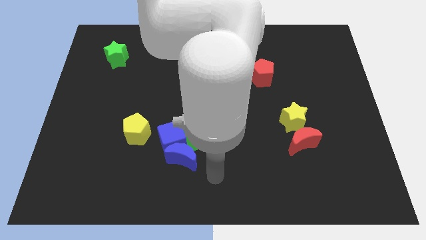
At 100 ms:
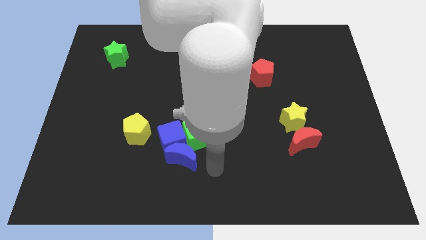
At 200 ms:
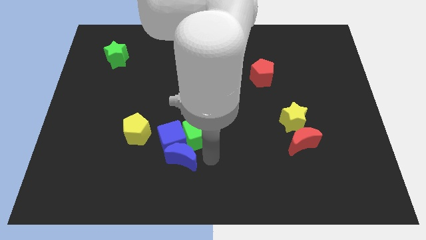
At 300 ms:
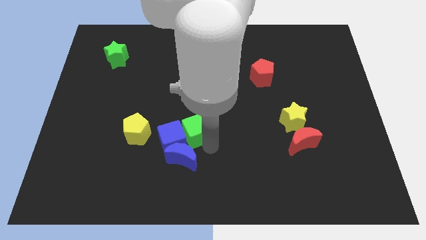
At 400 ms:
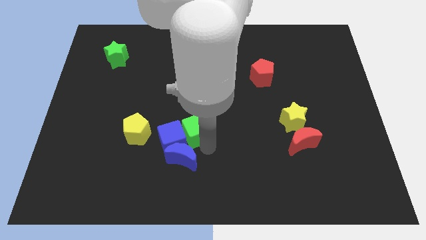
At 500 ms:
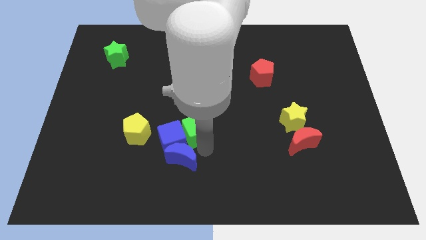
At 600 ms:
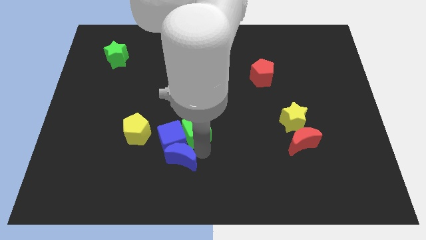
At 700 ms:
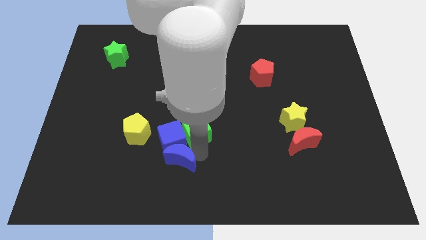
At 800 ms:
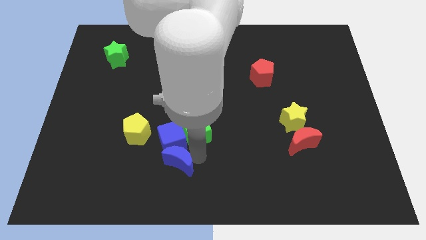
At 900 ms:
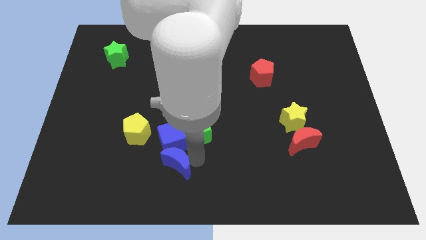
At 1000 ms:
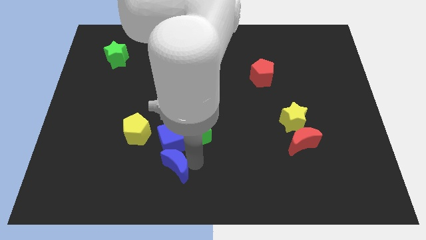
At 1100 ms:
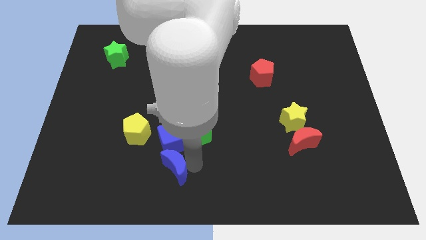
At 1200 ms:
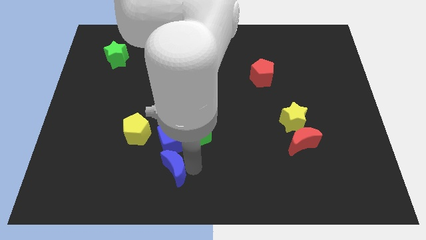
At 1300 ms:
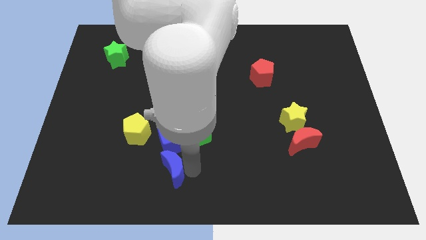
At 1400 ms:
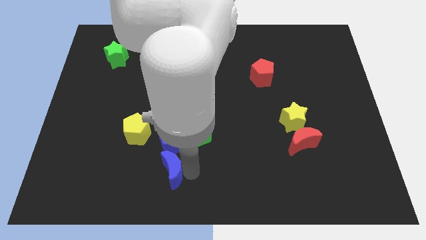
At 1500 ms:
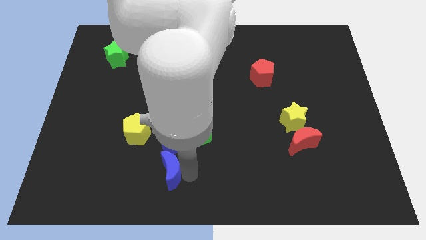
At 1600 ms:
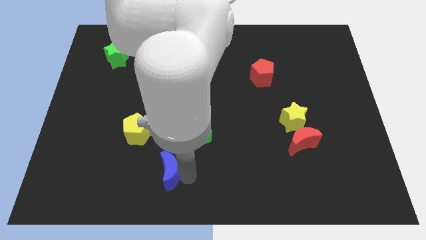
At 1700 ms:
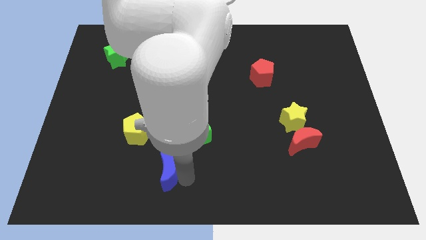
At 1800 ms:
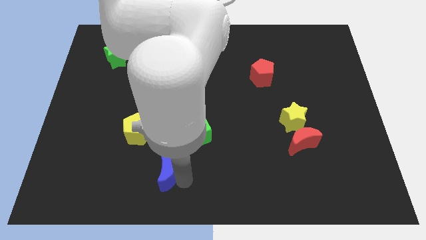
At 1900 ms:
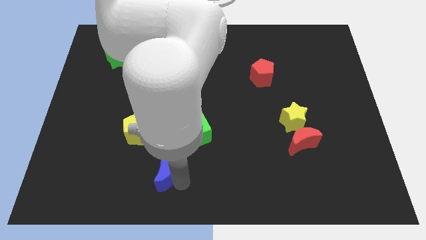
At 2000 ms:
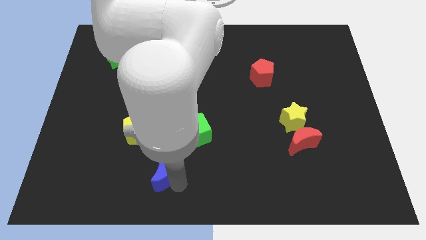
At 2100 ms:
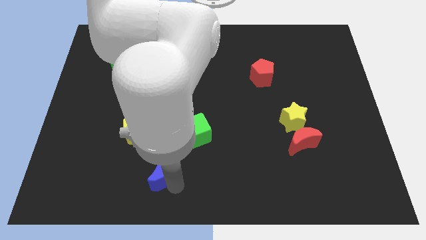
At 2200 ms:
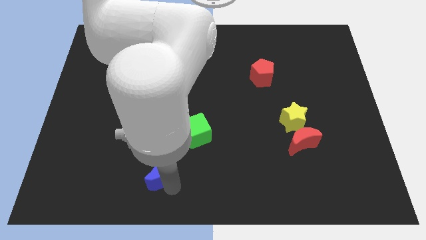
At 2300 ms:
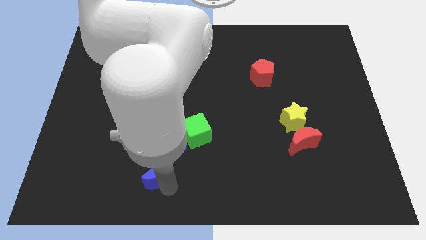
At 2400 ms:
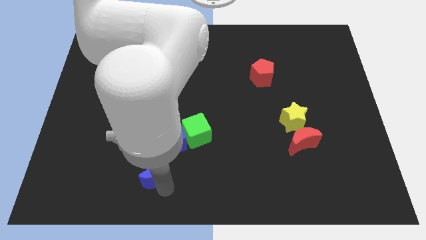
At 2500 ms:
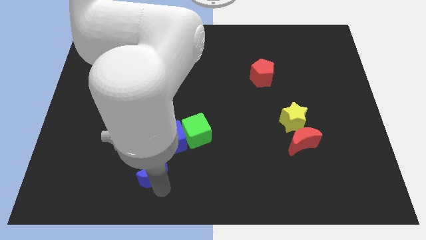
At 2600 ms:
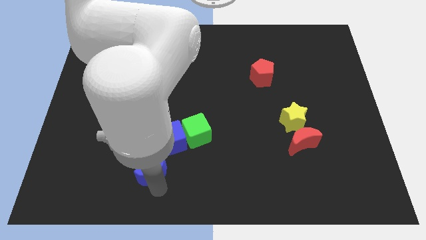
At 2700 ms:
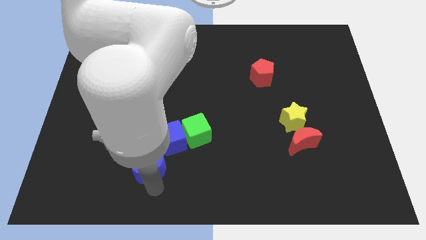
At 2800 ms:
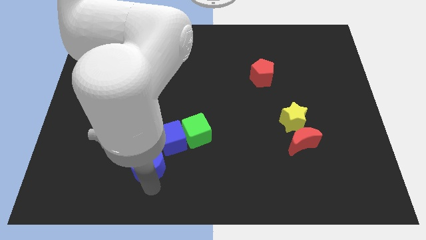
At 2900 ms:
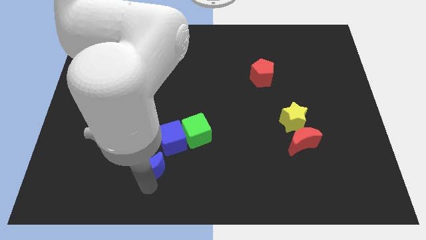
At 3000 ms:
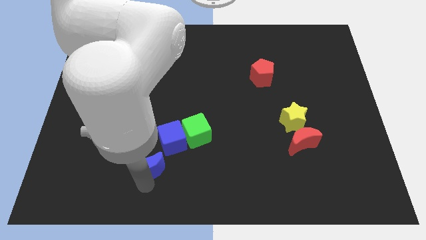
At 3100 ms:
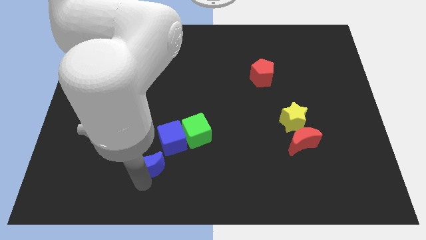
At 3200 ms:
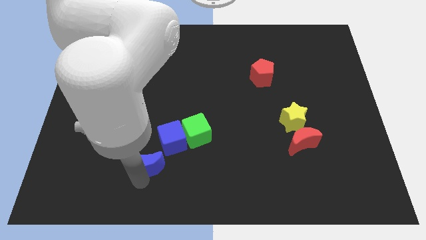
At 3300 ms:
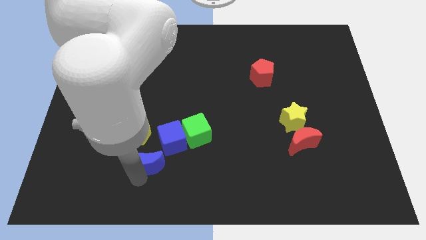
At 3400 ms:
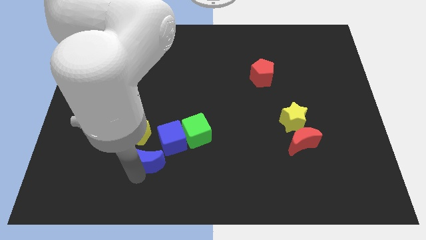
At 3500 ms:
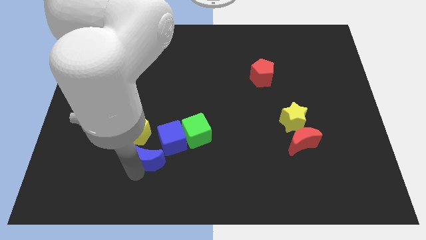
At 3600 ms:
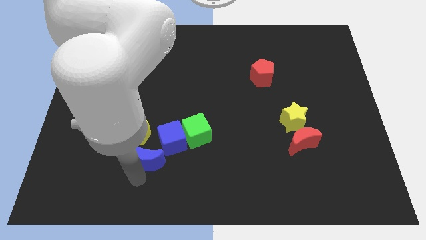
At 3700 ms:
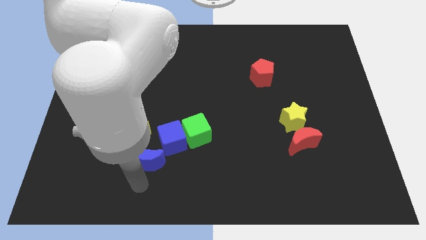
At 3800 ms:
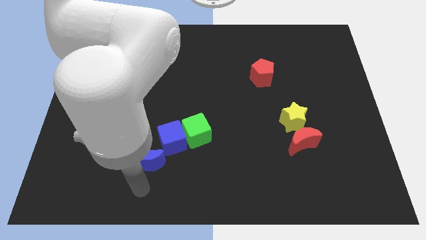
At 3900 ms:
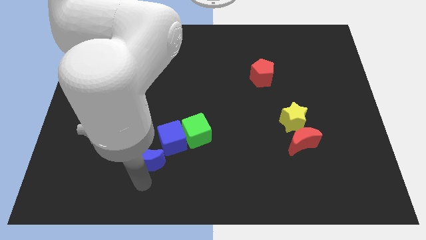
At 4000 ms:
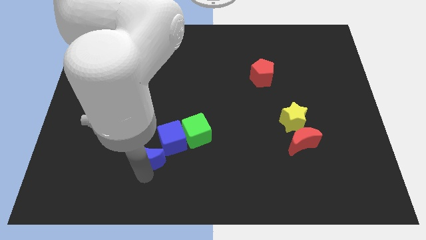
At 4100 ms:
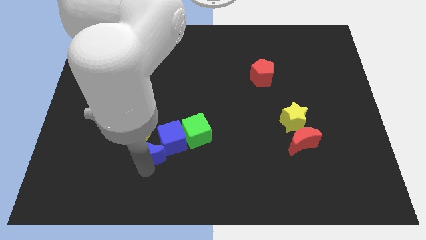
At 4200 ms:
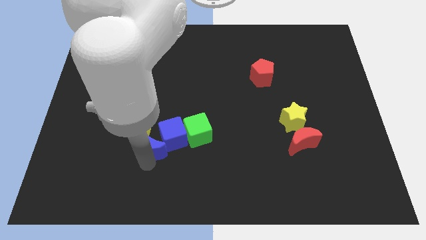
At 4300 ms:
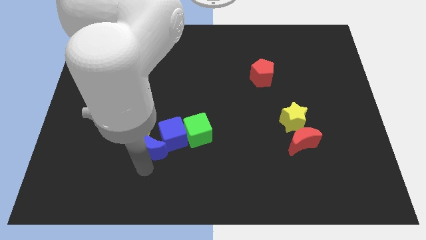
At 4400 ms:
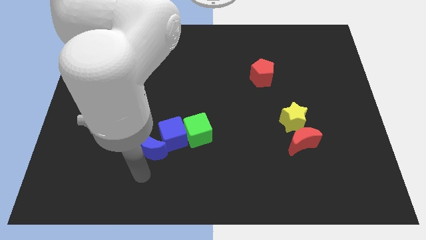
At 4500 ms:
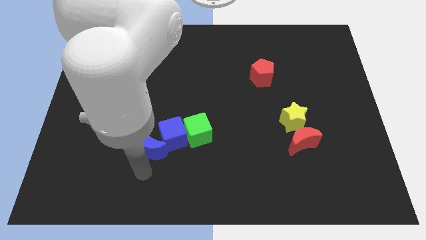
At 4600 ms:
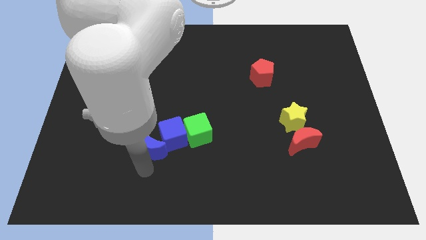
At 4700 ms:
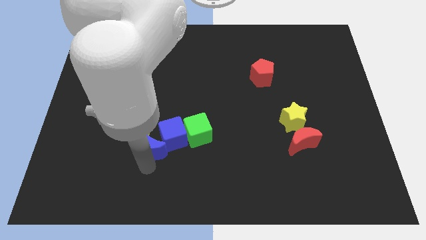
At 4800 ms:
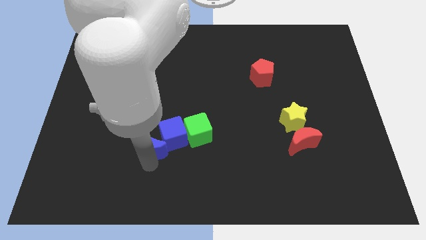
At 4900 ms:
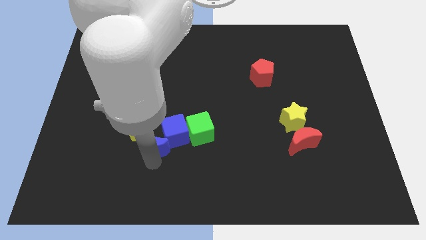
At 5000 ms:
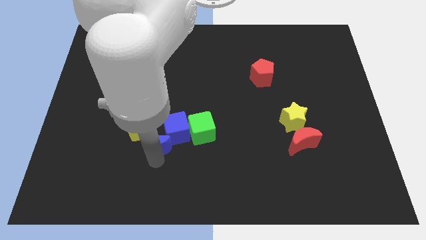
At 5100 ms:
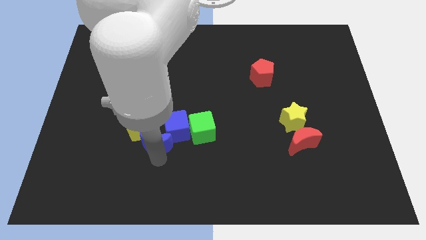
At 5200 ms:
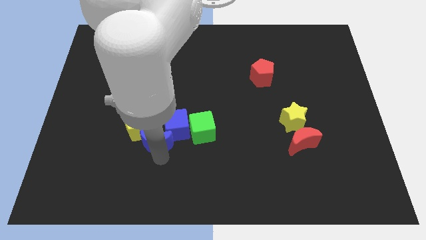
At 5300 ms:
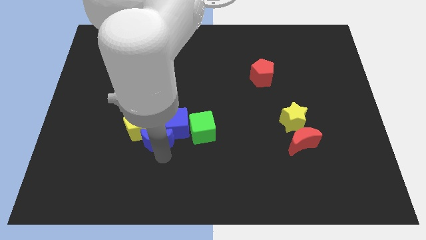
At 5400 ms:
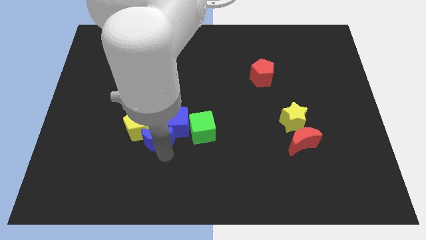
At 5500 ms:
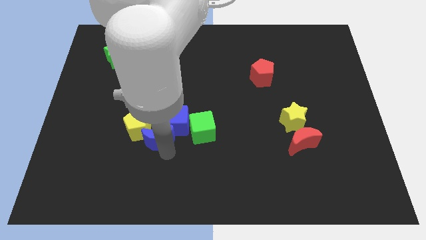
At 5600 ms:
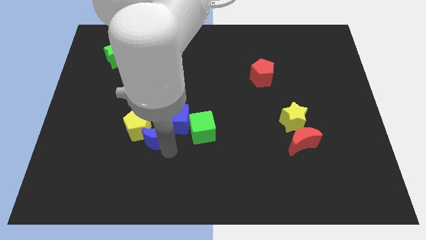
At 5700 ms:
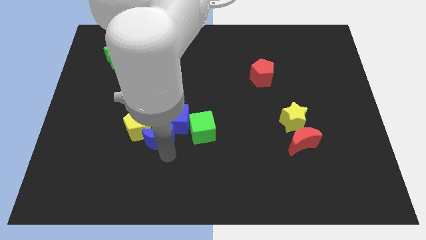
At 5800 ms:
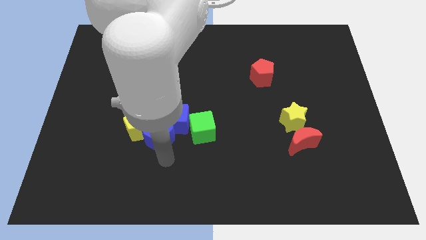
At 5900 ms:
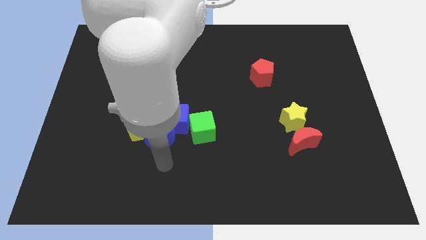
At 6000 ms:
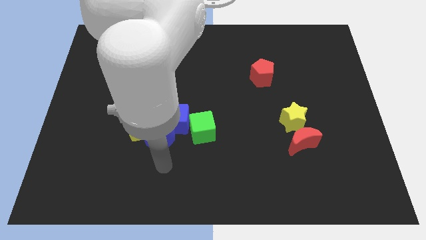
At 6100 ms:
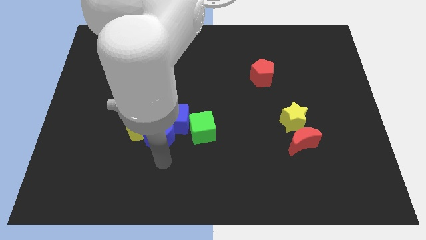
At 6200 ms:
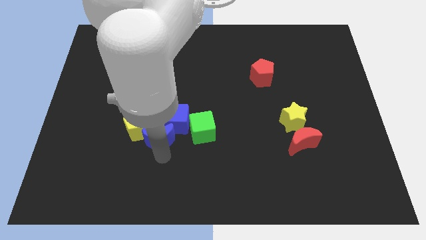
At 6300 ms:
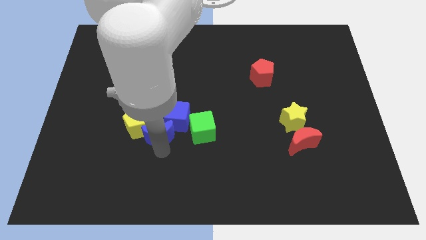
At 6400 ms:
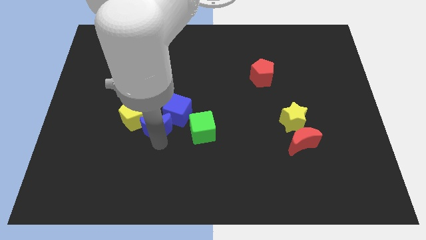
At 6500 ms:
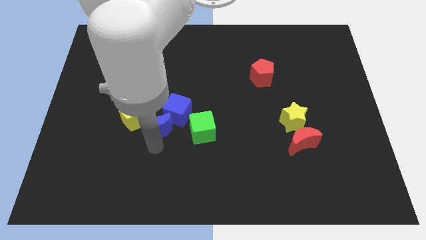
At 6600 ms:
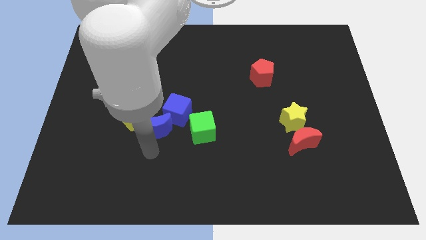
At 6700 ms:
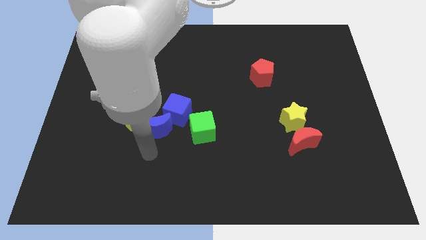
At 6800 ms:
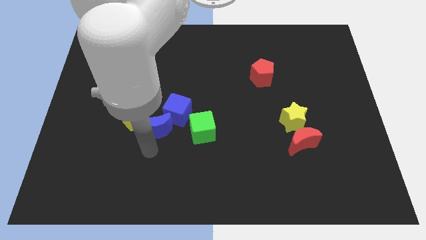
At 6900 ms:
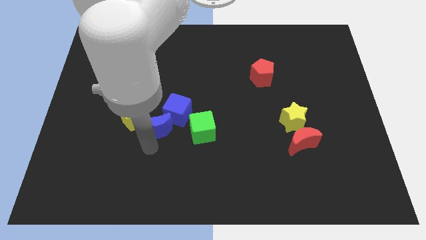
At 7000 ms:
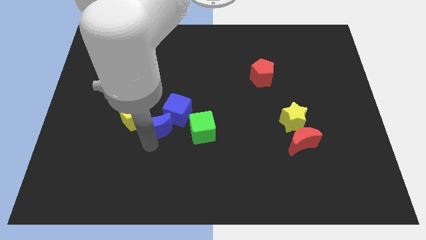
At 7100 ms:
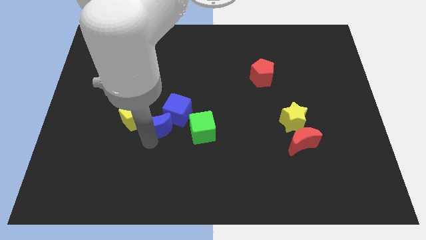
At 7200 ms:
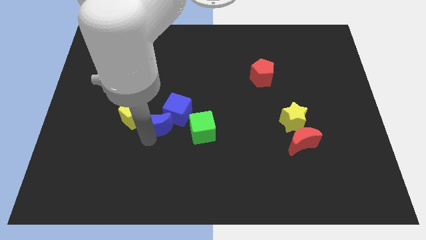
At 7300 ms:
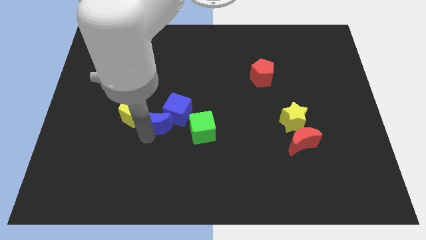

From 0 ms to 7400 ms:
slightly slide the blue moon up

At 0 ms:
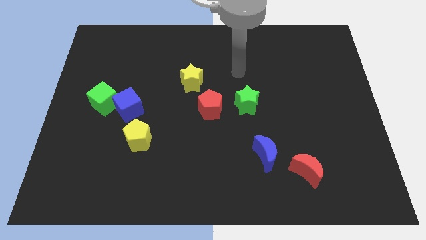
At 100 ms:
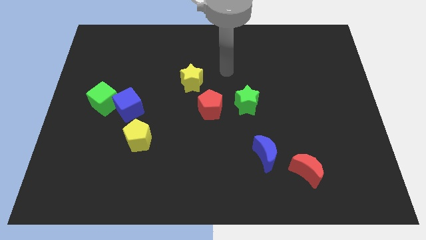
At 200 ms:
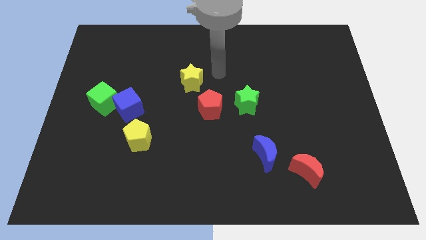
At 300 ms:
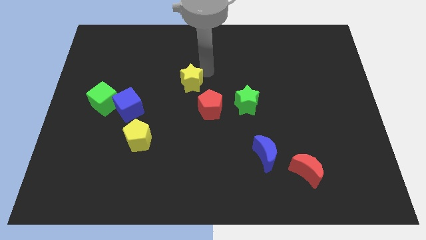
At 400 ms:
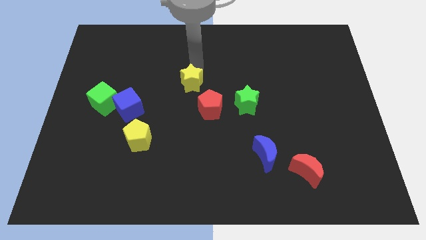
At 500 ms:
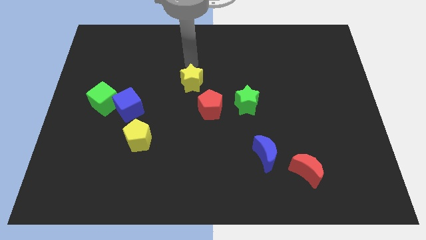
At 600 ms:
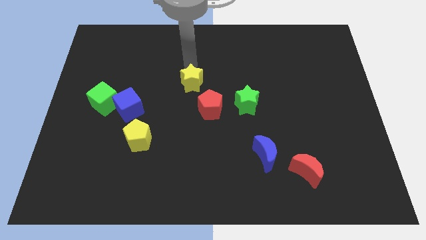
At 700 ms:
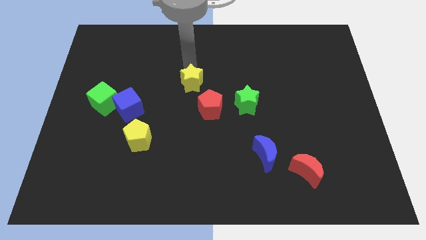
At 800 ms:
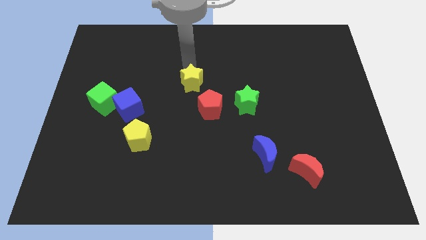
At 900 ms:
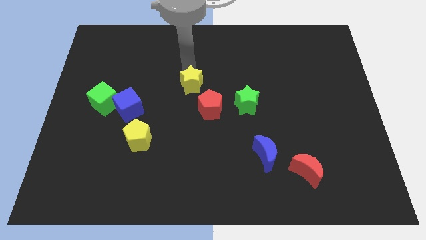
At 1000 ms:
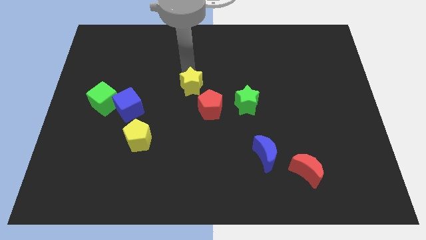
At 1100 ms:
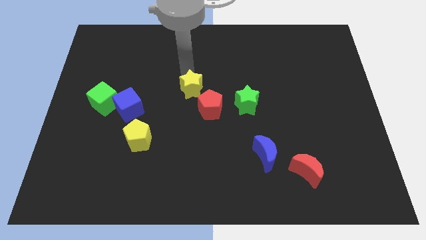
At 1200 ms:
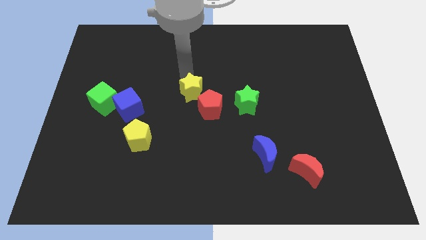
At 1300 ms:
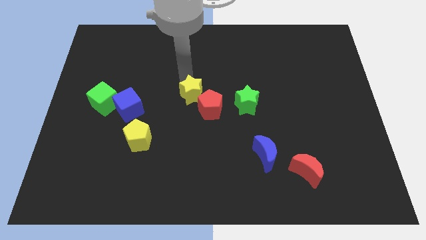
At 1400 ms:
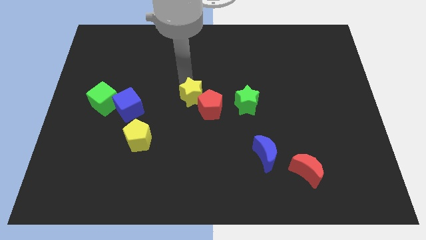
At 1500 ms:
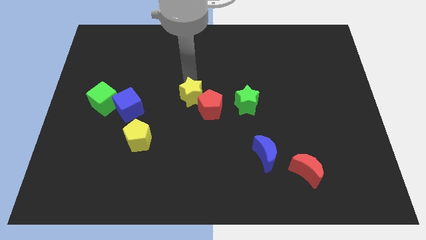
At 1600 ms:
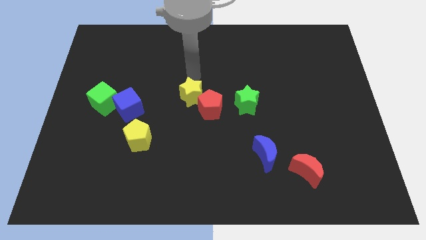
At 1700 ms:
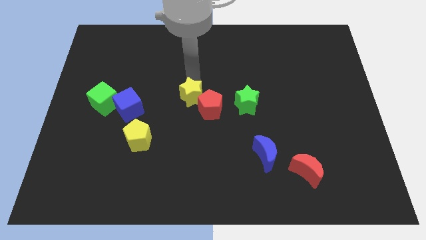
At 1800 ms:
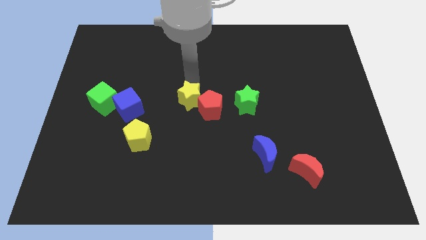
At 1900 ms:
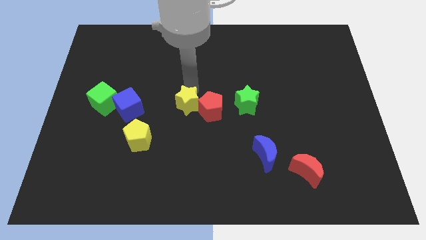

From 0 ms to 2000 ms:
push the yellow star downwards a little
